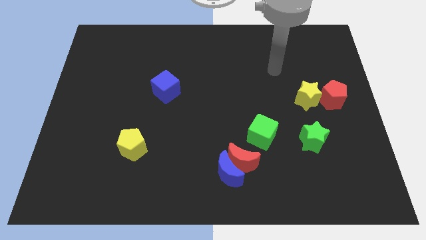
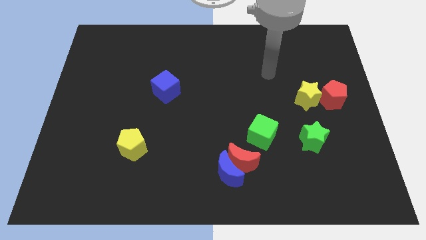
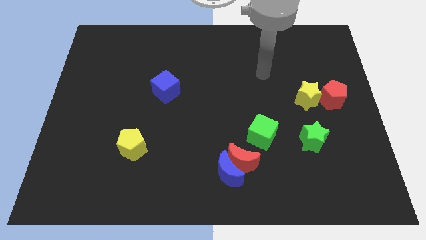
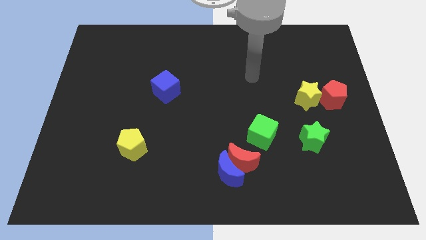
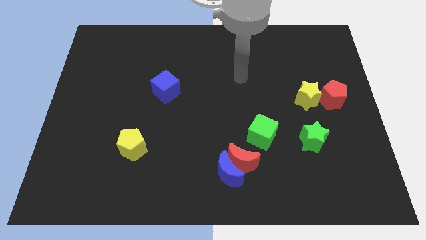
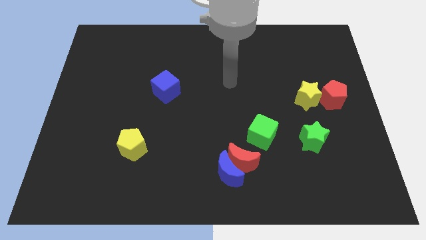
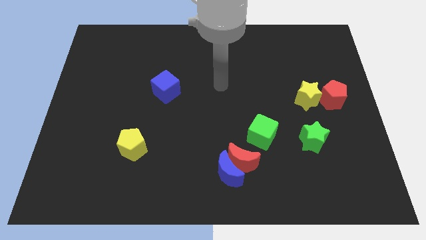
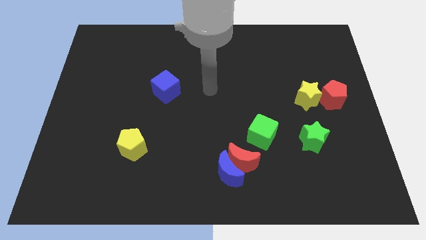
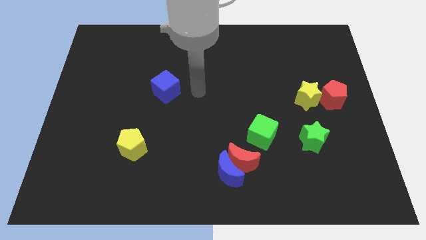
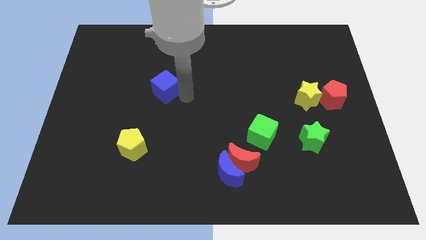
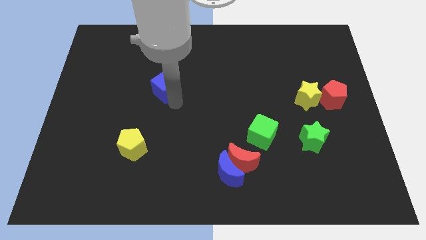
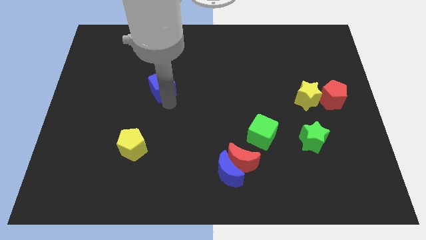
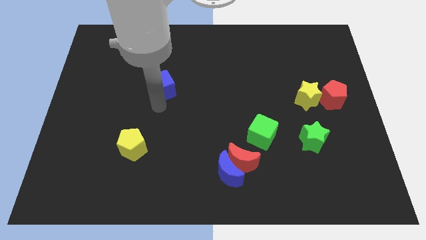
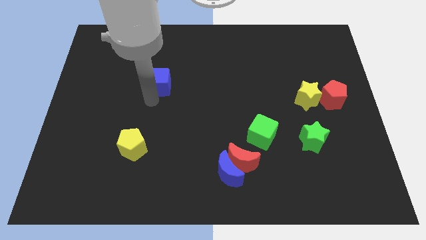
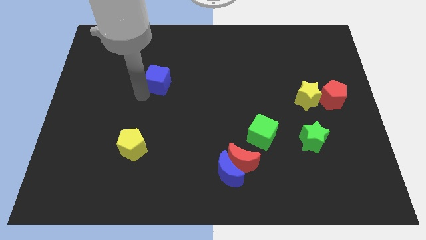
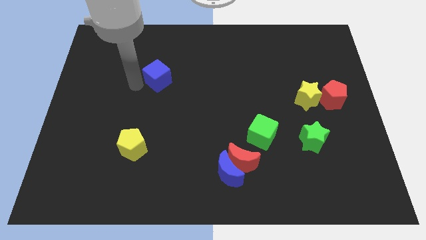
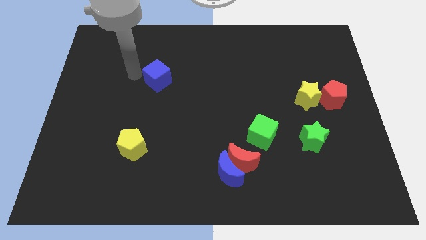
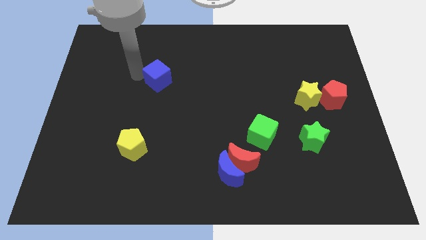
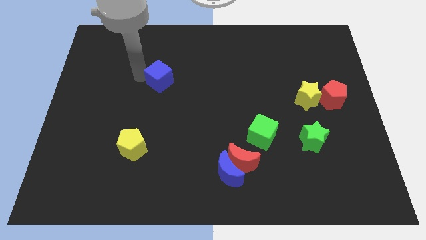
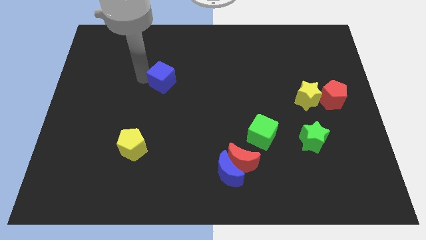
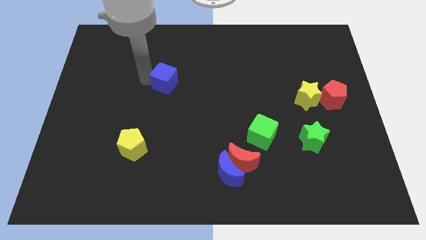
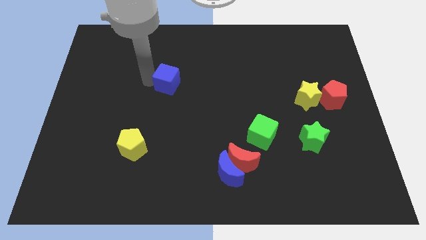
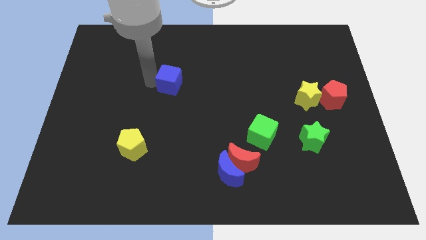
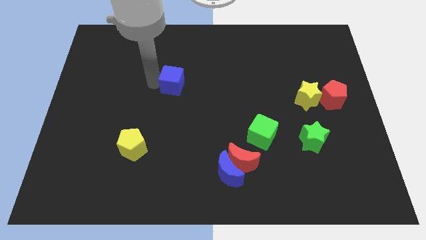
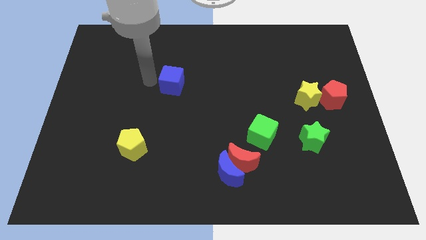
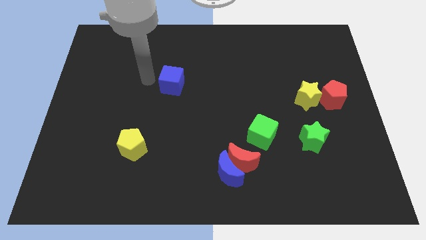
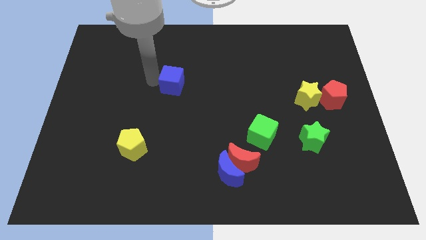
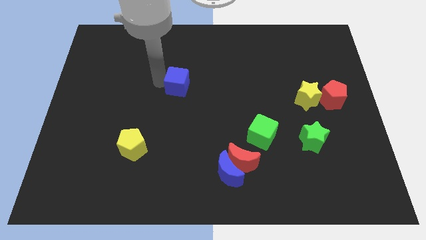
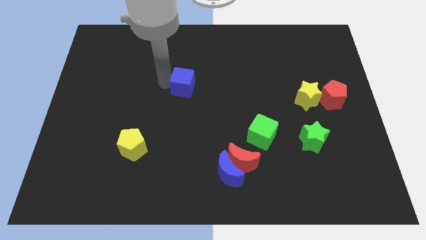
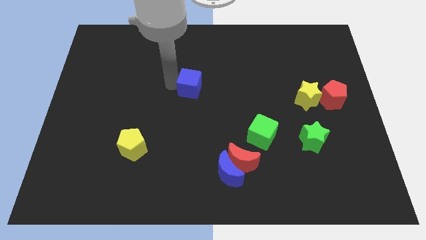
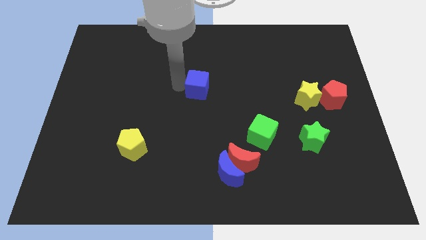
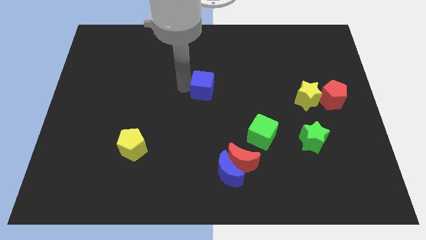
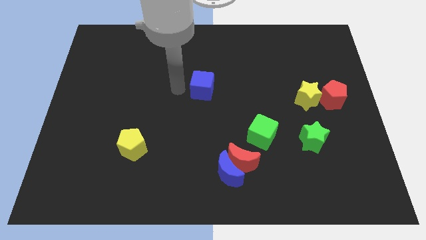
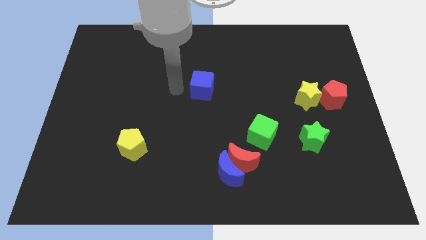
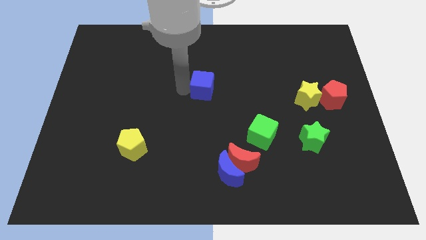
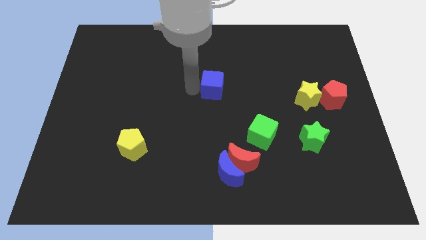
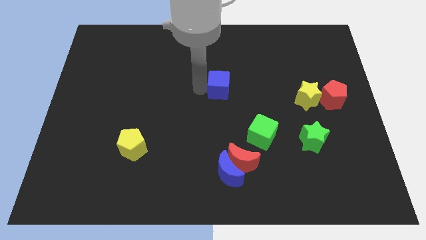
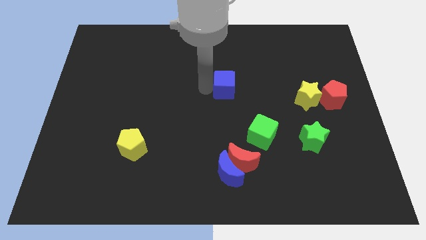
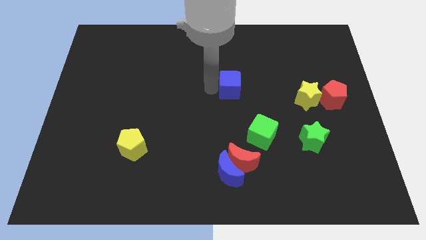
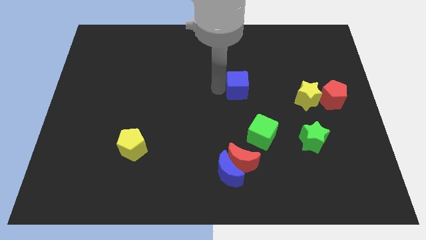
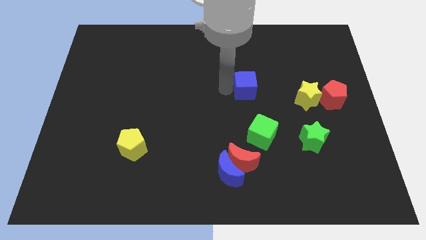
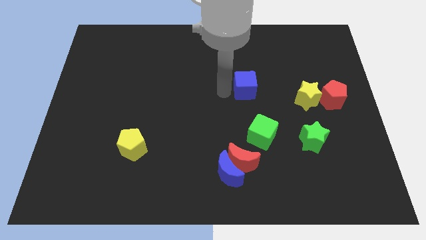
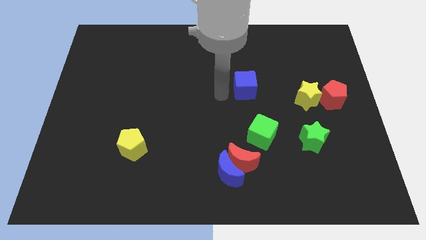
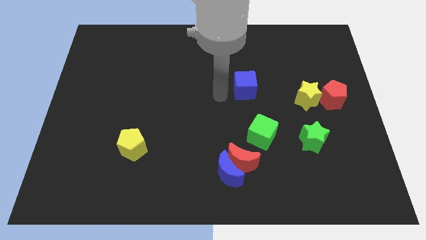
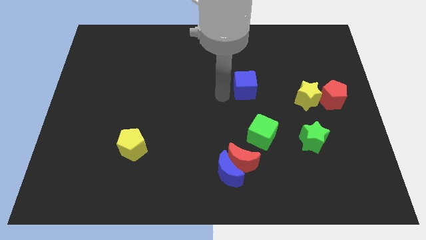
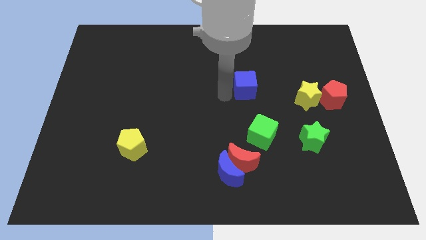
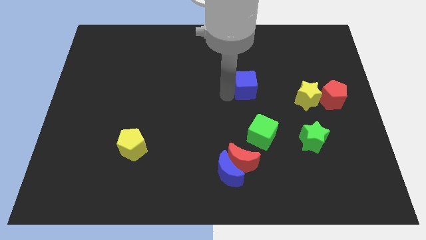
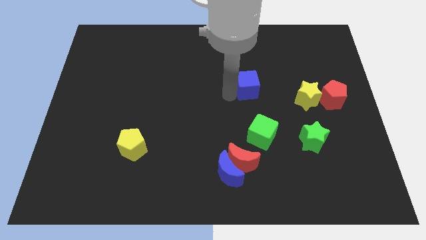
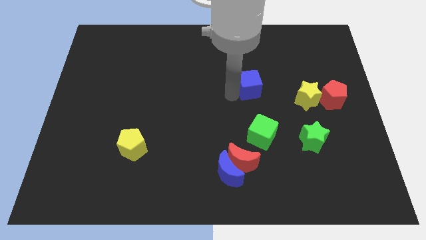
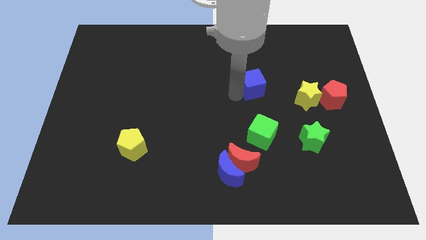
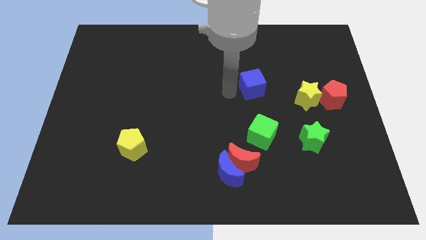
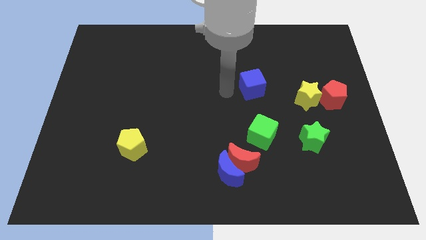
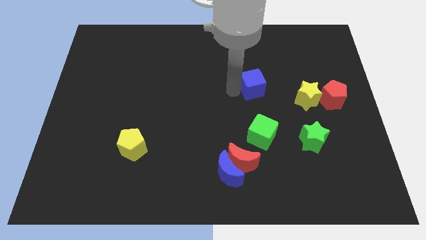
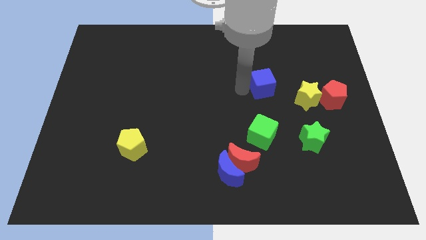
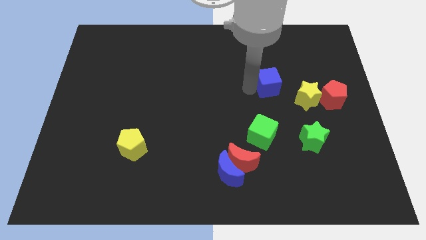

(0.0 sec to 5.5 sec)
push the blue cube diagonally up and to the left of the yellow star

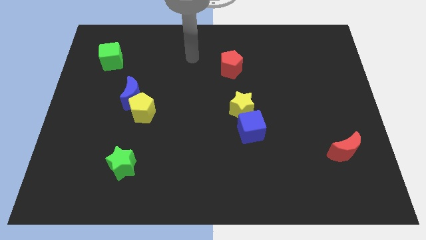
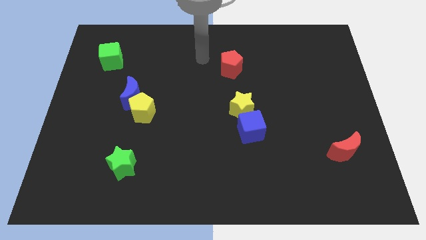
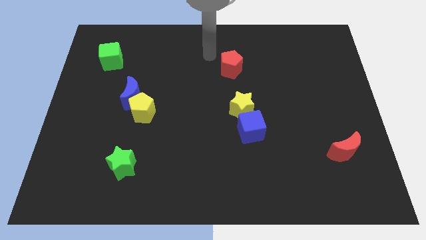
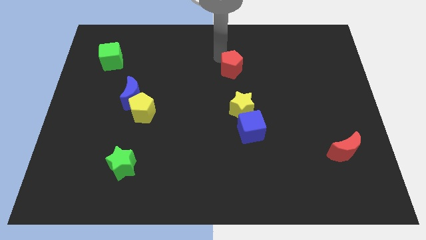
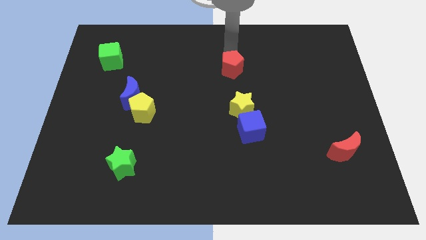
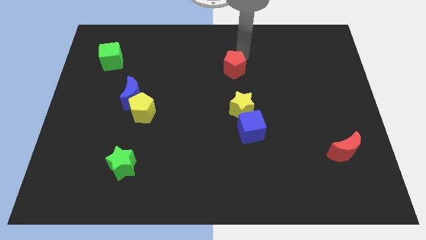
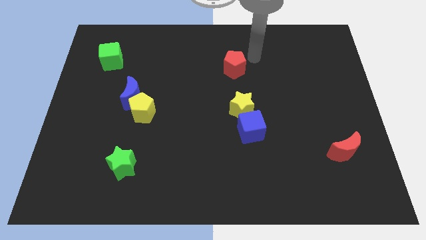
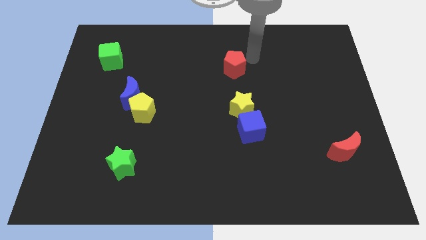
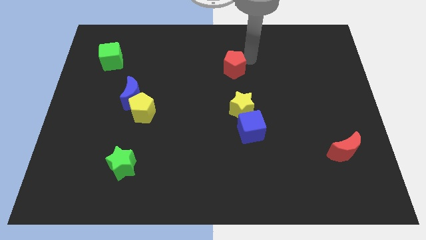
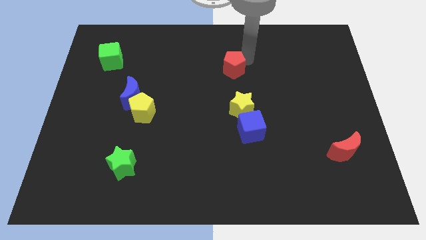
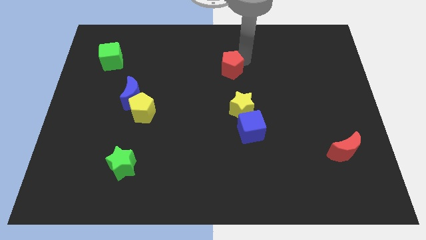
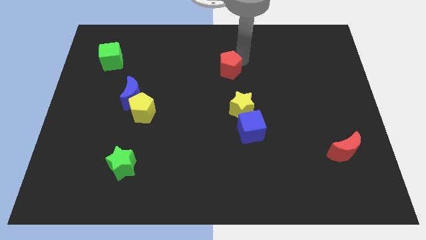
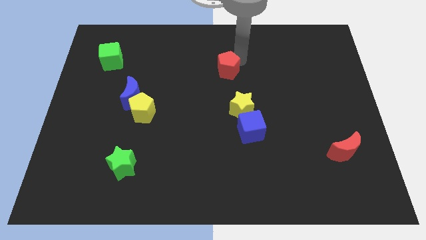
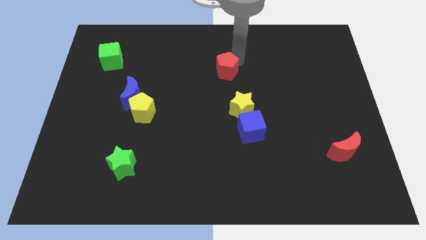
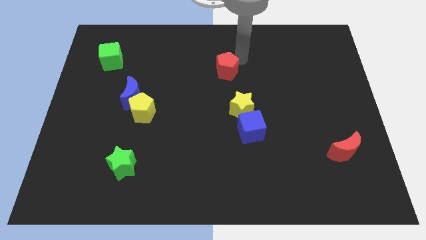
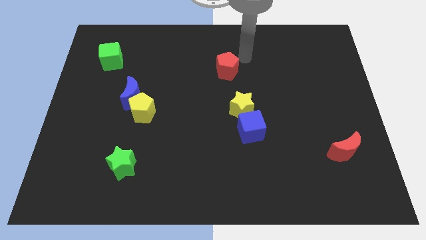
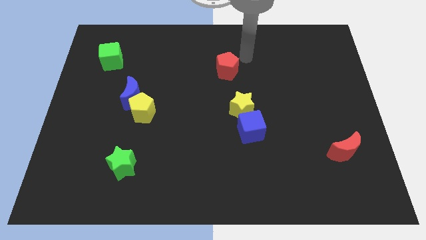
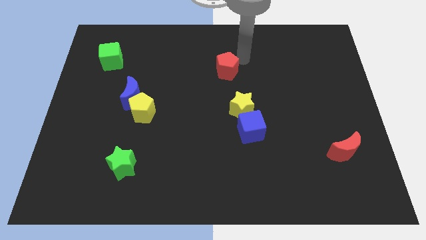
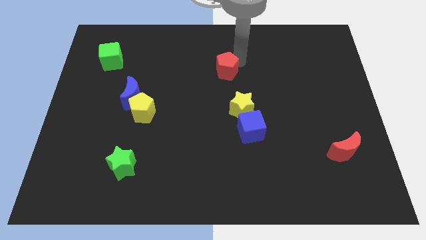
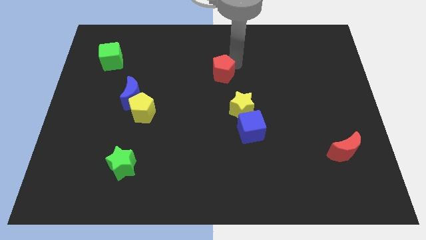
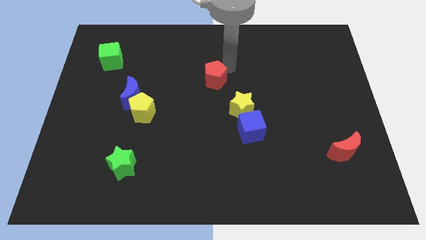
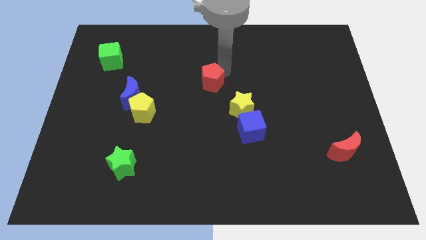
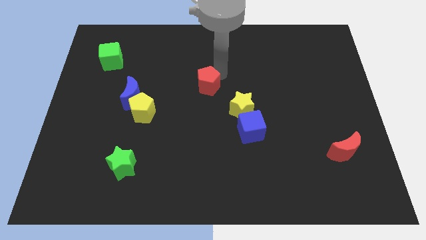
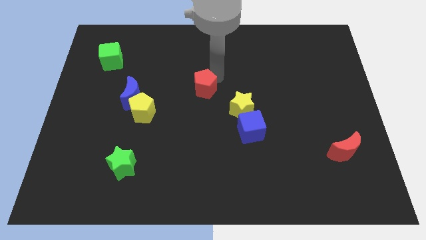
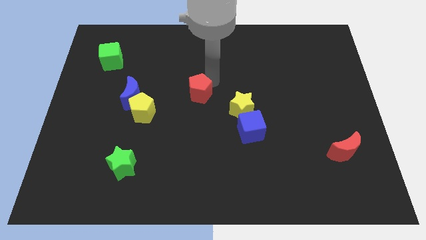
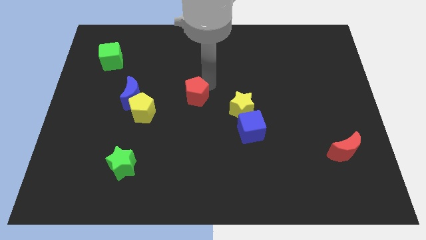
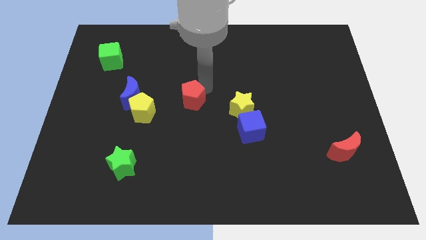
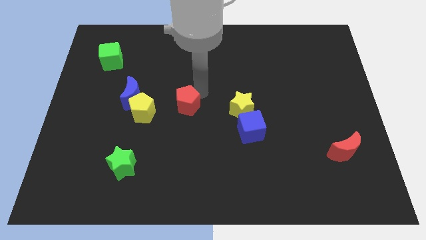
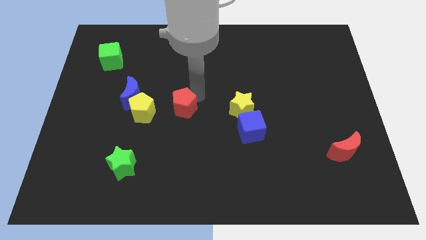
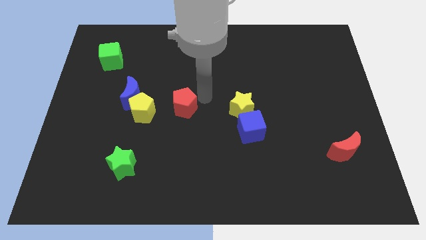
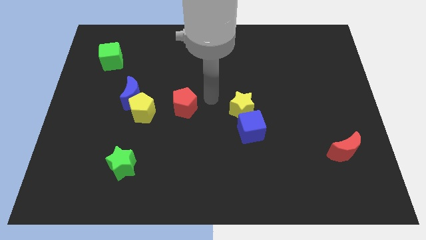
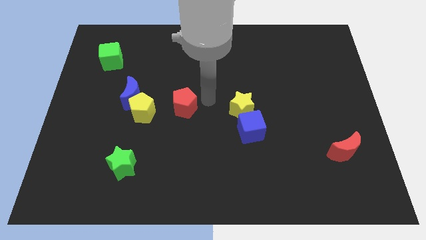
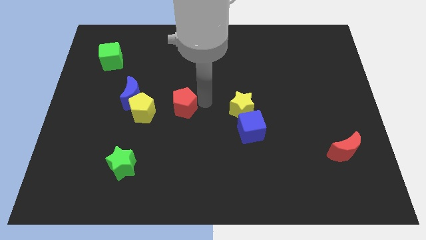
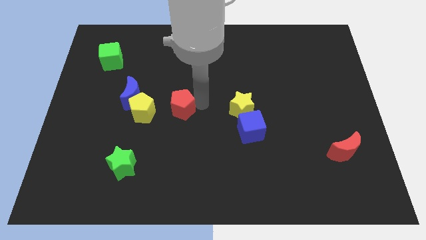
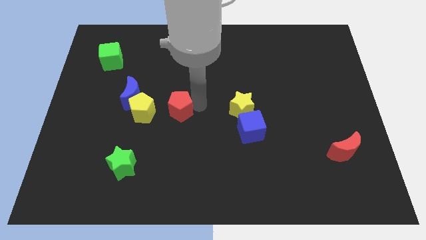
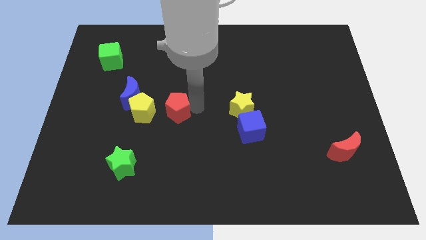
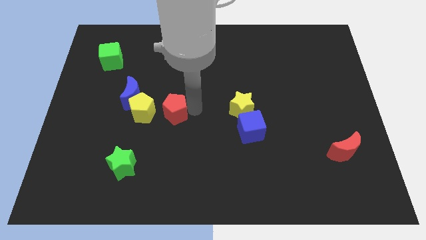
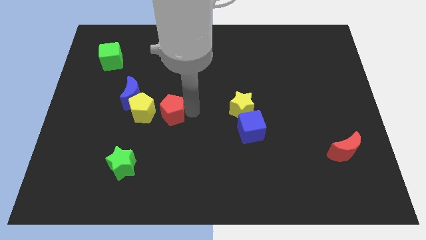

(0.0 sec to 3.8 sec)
push the red pentagon diagonally down and to the right of the blue moon
